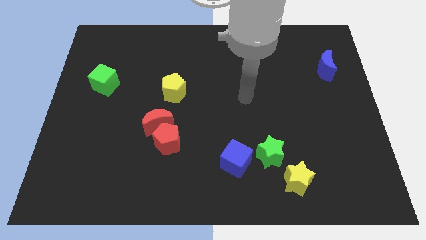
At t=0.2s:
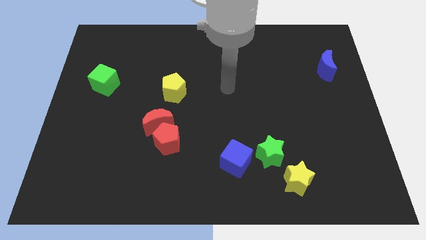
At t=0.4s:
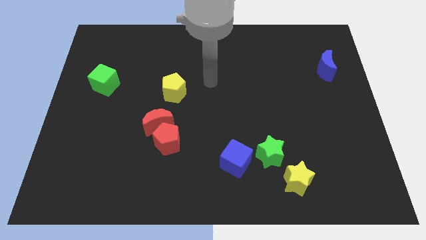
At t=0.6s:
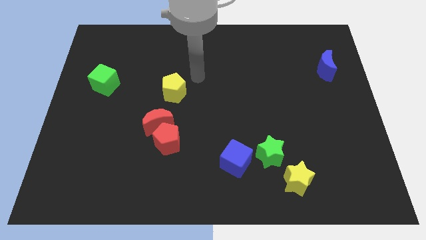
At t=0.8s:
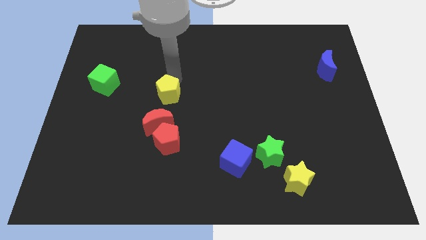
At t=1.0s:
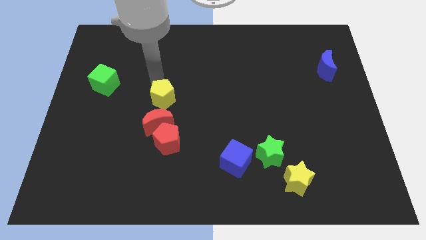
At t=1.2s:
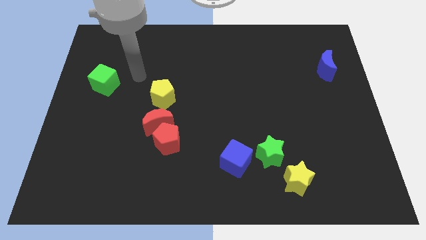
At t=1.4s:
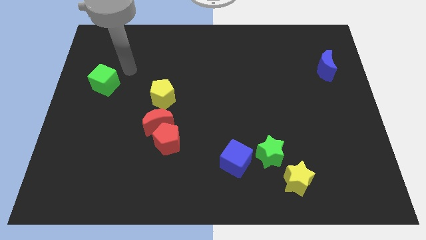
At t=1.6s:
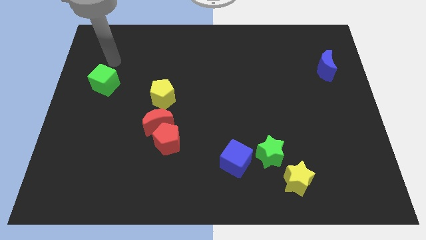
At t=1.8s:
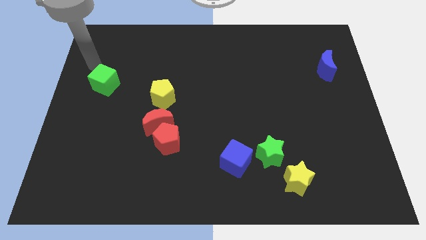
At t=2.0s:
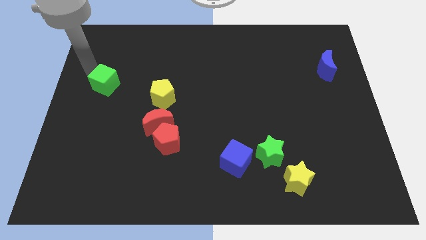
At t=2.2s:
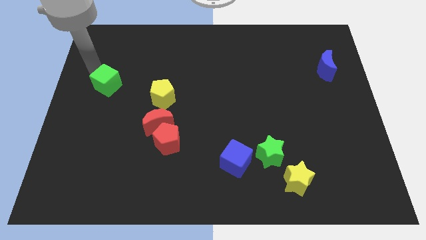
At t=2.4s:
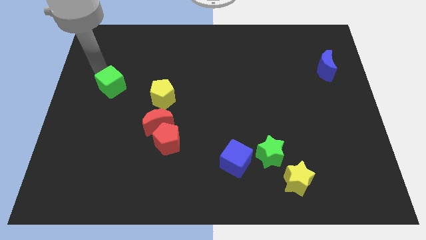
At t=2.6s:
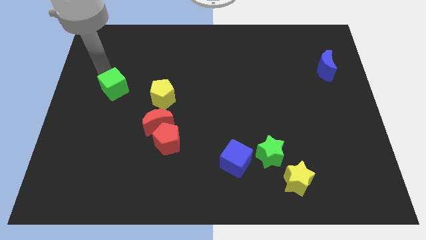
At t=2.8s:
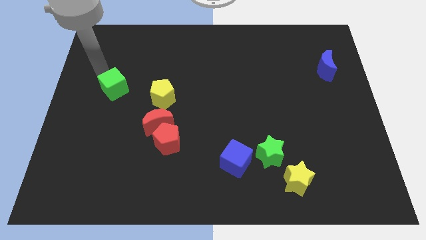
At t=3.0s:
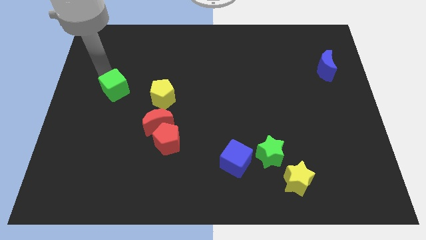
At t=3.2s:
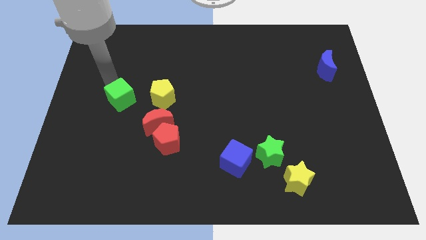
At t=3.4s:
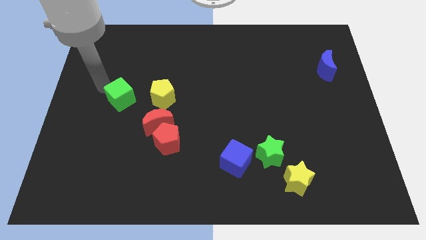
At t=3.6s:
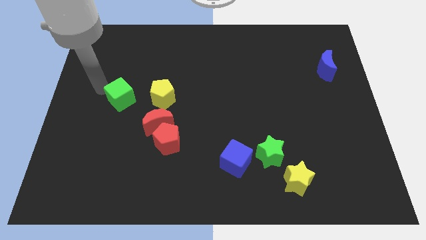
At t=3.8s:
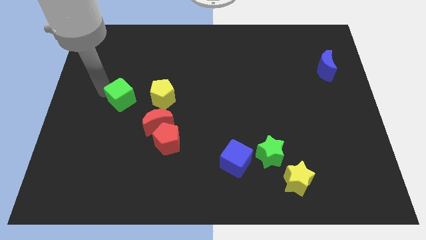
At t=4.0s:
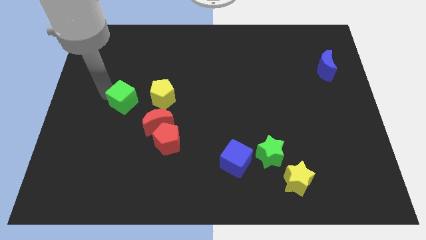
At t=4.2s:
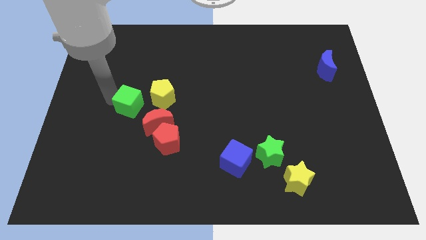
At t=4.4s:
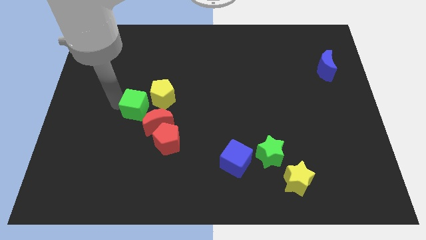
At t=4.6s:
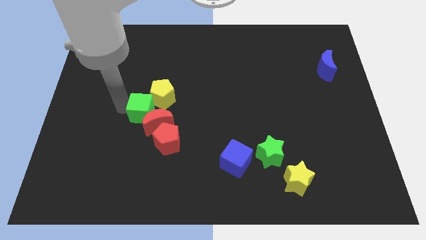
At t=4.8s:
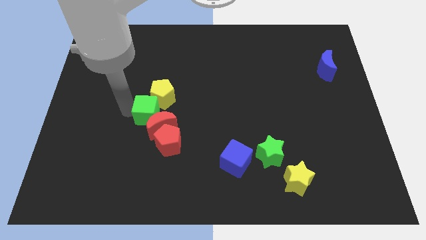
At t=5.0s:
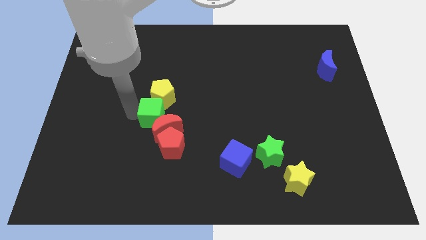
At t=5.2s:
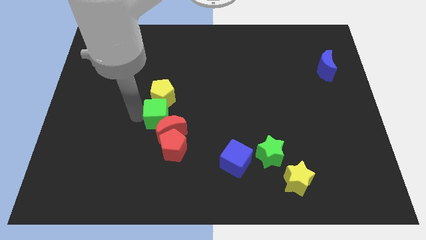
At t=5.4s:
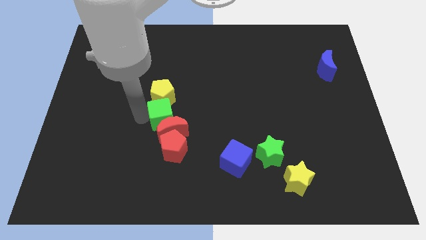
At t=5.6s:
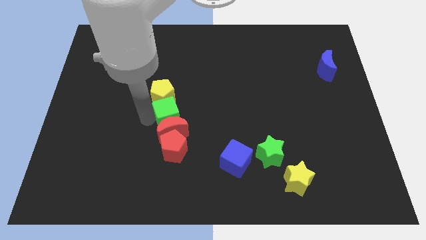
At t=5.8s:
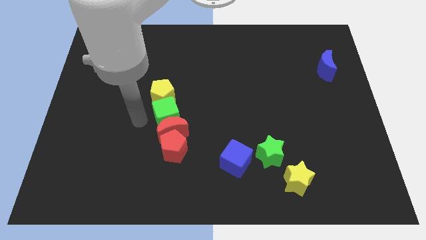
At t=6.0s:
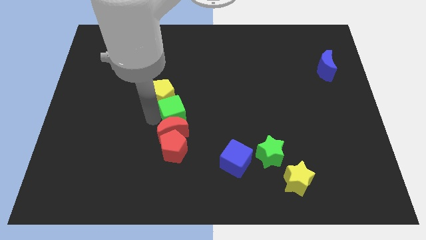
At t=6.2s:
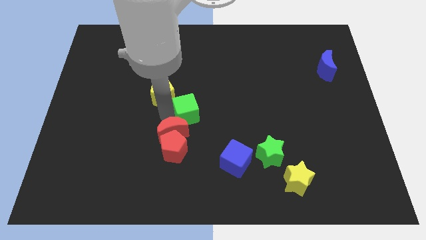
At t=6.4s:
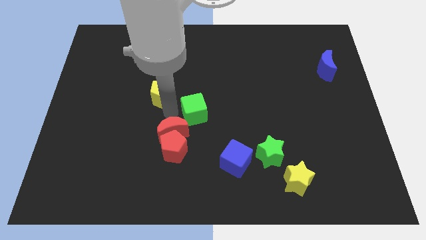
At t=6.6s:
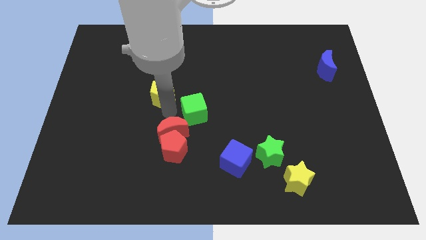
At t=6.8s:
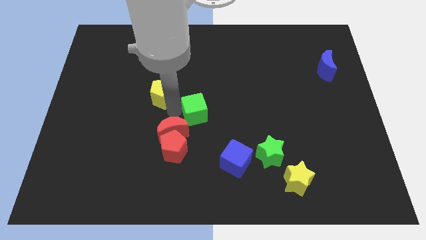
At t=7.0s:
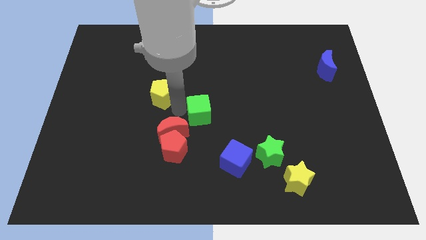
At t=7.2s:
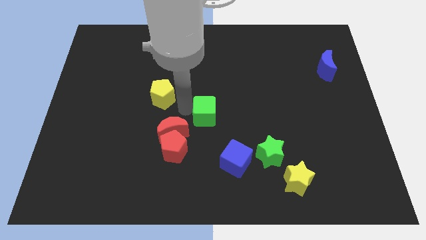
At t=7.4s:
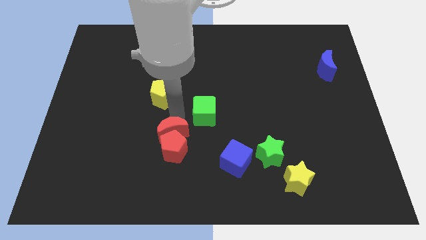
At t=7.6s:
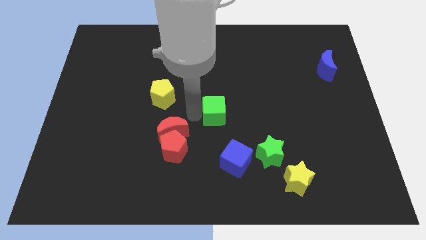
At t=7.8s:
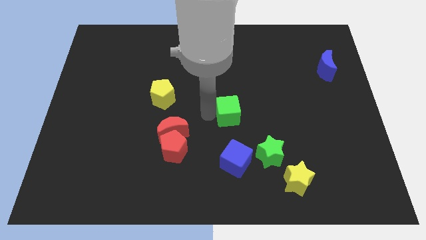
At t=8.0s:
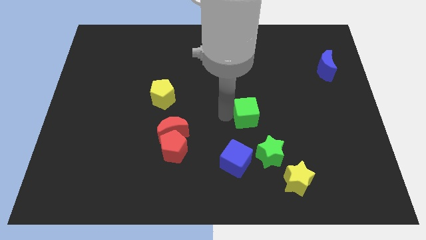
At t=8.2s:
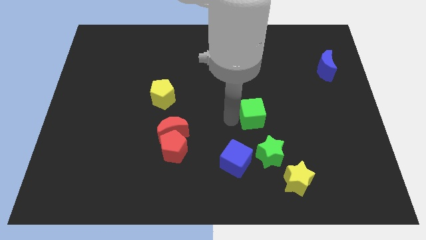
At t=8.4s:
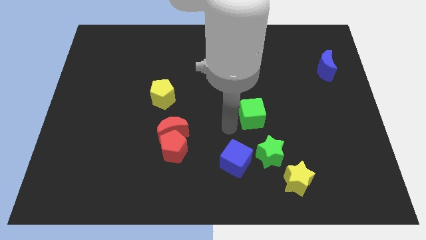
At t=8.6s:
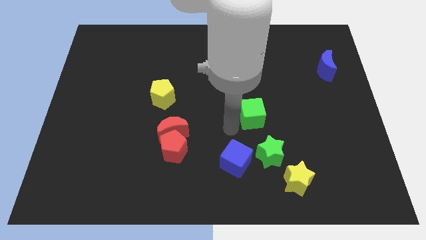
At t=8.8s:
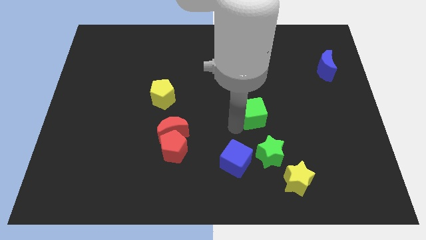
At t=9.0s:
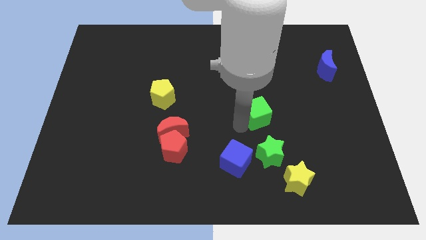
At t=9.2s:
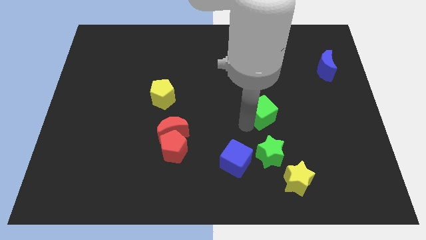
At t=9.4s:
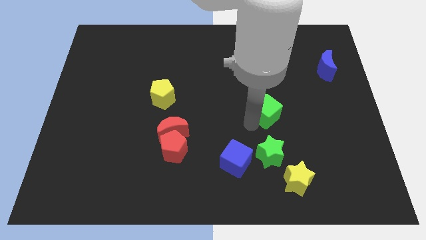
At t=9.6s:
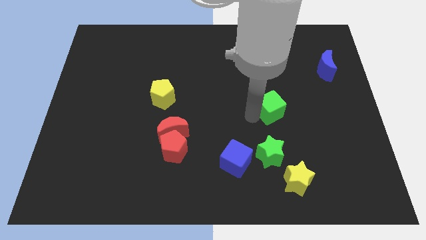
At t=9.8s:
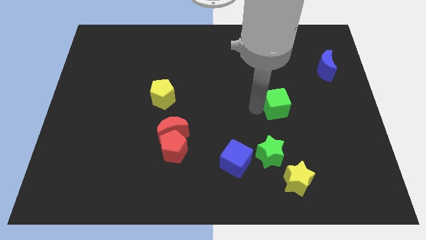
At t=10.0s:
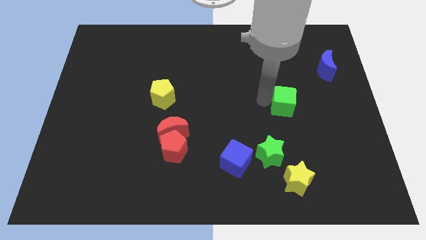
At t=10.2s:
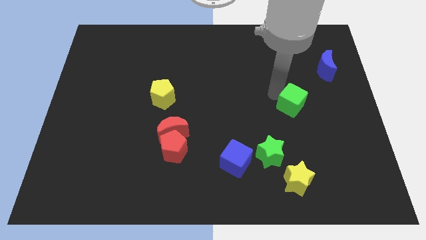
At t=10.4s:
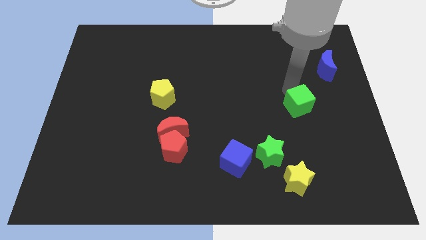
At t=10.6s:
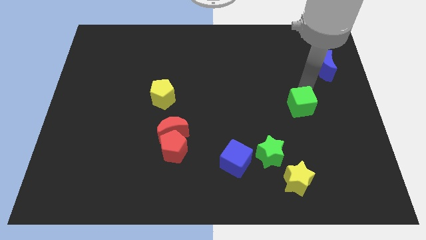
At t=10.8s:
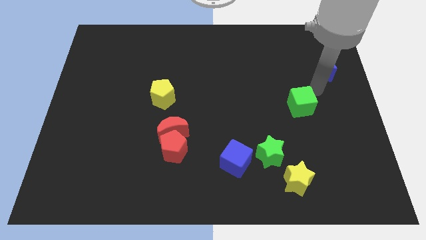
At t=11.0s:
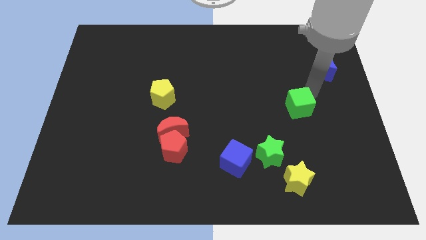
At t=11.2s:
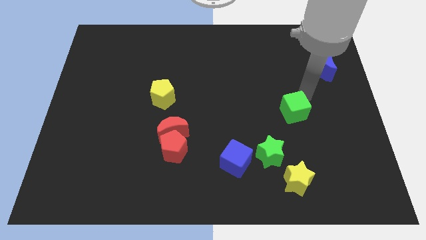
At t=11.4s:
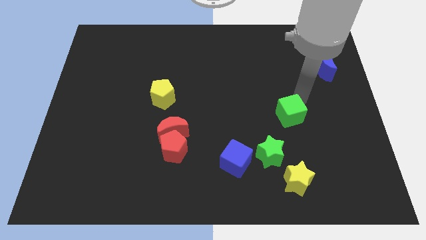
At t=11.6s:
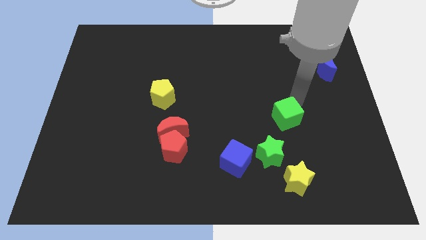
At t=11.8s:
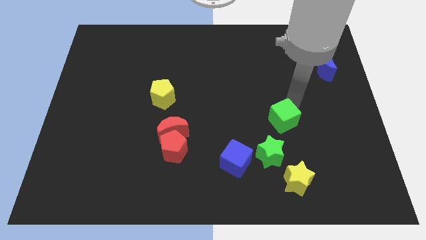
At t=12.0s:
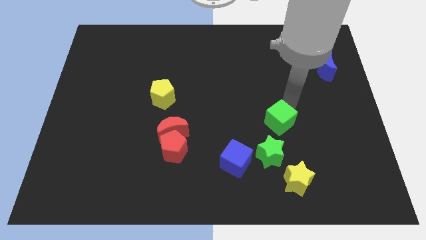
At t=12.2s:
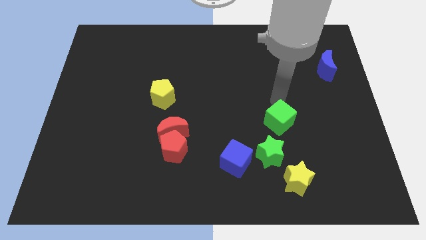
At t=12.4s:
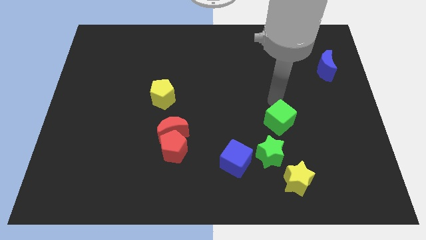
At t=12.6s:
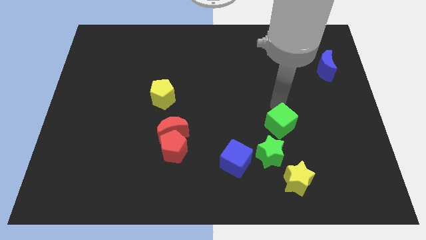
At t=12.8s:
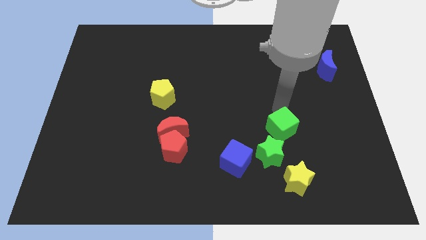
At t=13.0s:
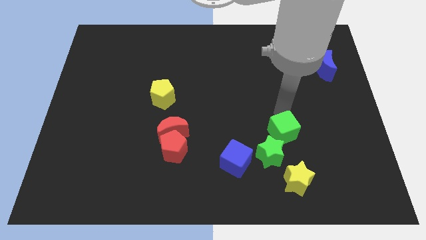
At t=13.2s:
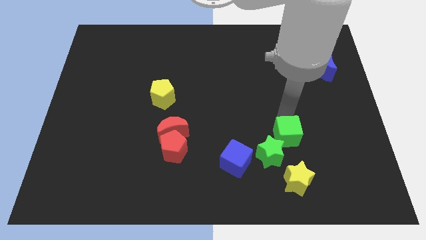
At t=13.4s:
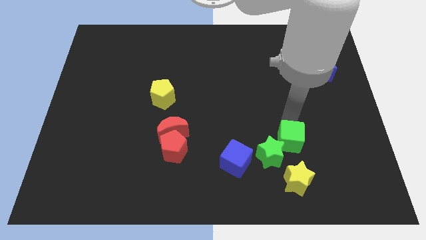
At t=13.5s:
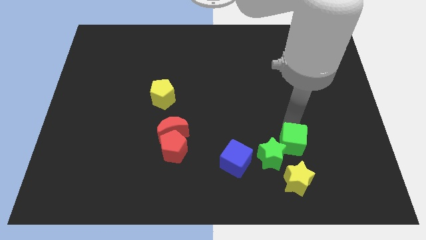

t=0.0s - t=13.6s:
push the green cube to the right side of the blue cube
